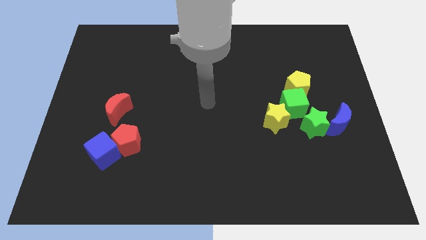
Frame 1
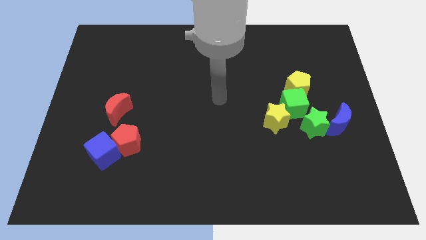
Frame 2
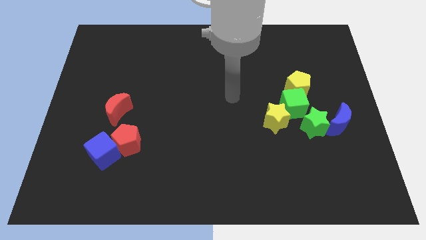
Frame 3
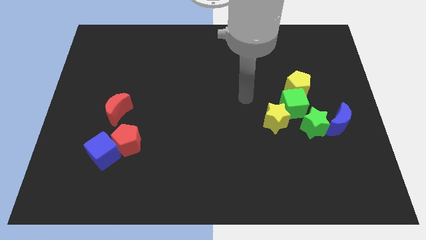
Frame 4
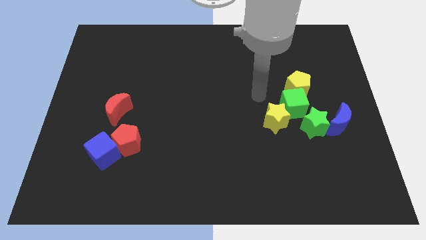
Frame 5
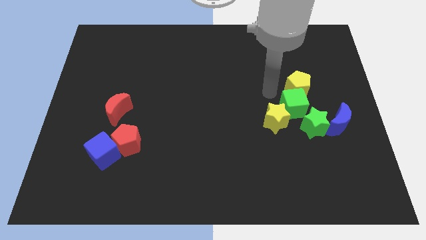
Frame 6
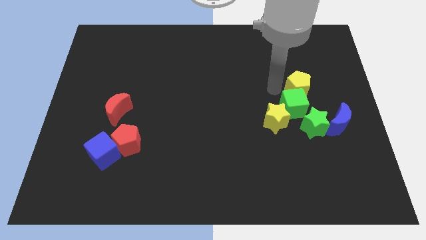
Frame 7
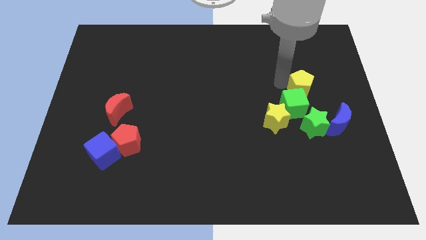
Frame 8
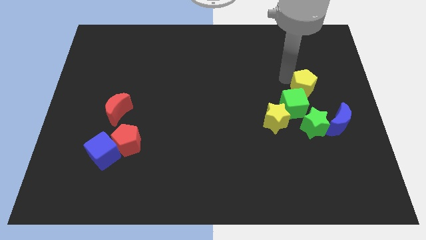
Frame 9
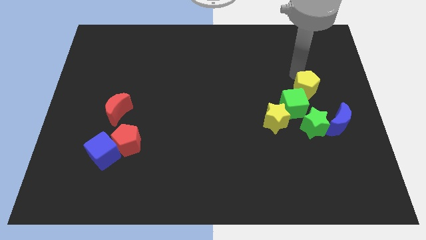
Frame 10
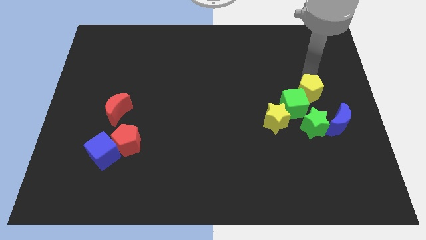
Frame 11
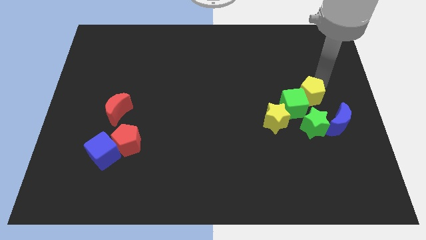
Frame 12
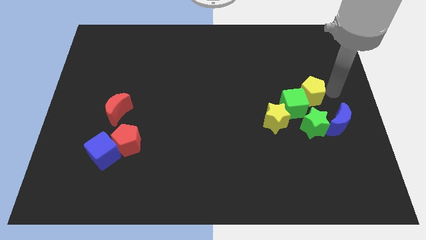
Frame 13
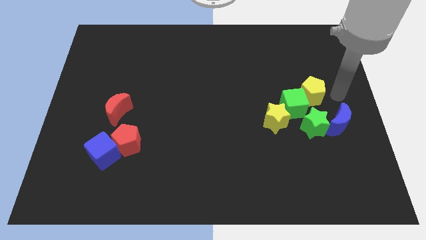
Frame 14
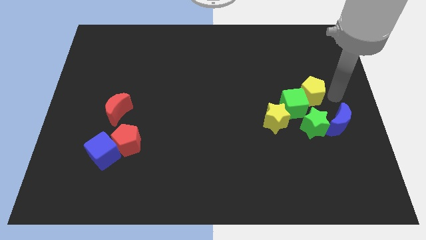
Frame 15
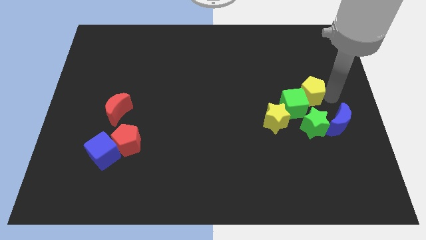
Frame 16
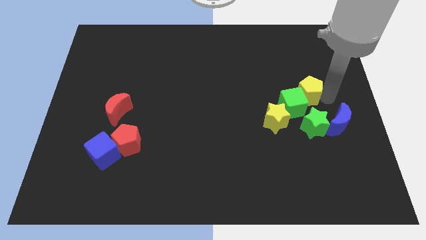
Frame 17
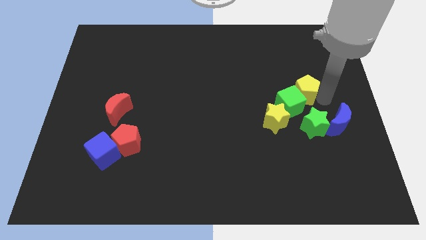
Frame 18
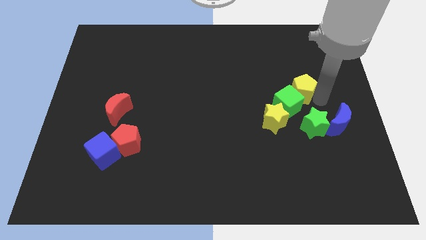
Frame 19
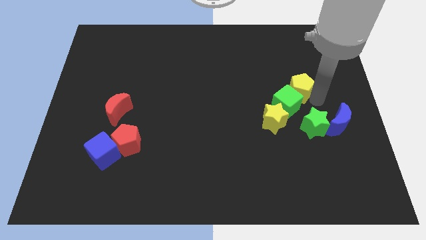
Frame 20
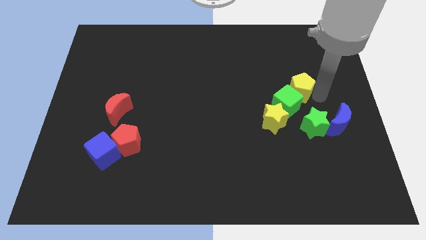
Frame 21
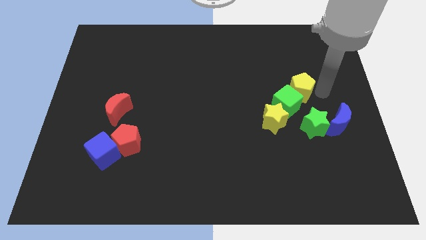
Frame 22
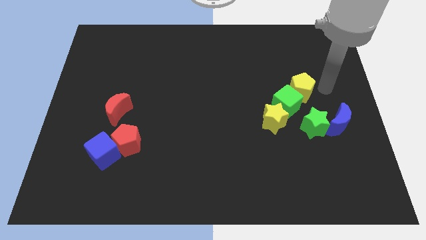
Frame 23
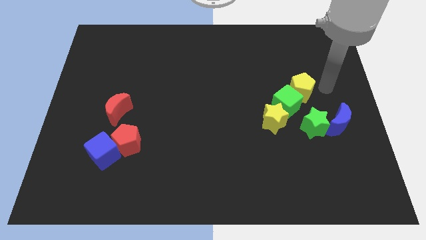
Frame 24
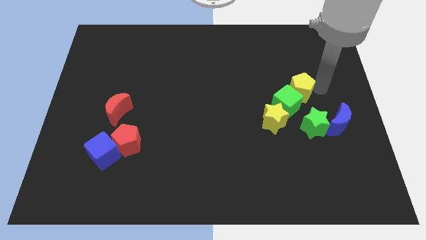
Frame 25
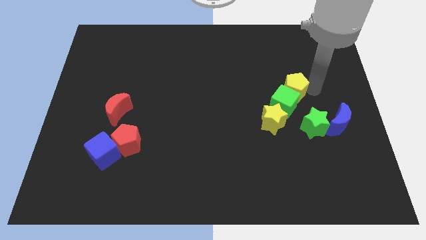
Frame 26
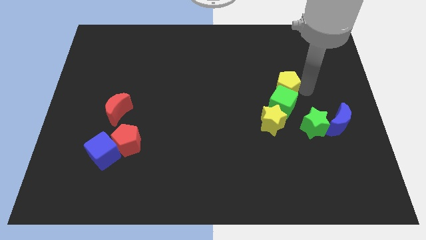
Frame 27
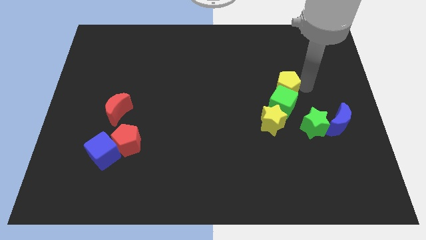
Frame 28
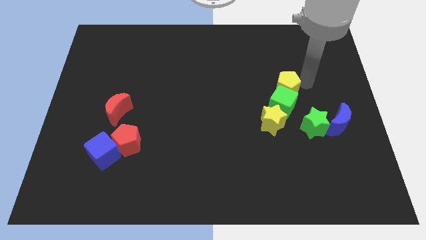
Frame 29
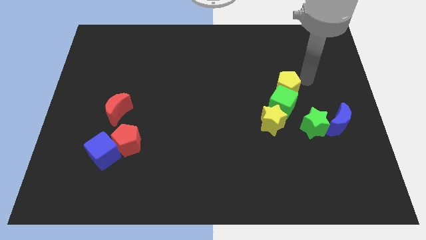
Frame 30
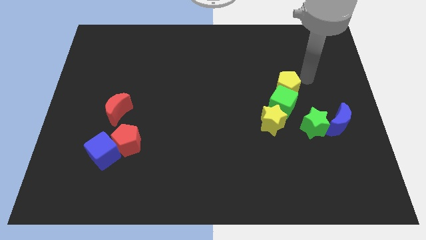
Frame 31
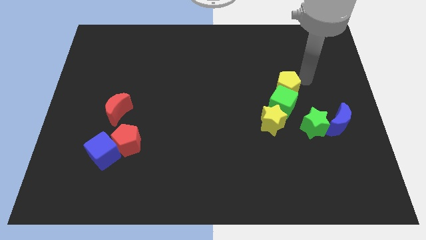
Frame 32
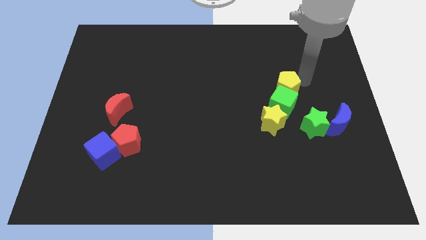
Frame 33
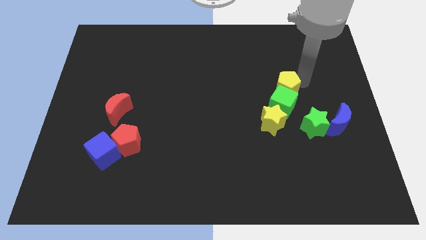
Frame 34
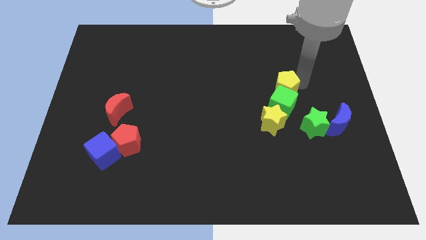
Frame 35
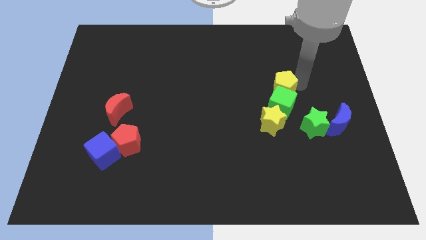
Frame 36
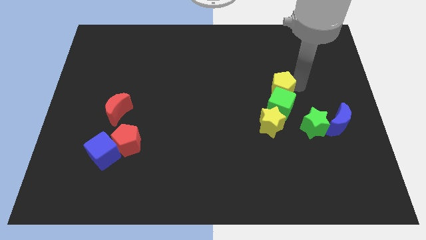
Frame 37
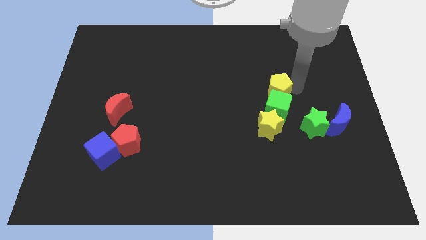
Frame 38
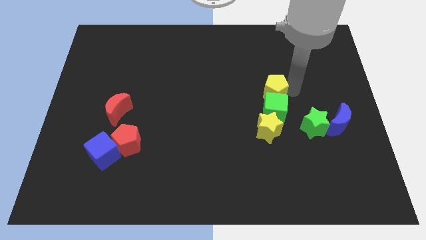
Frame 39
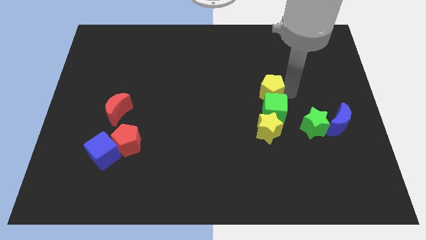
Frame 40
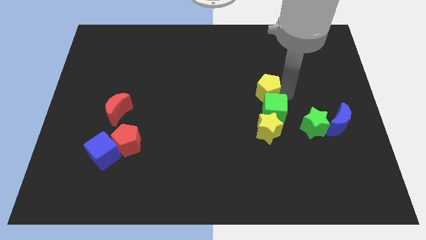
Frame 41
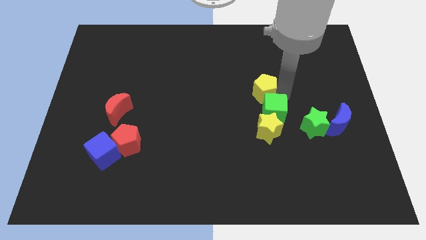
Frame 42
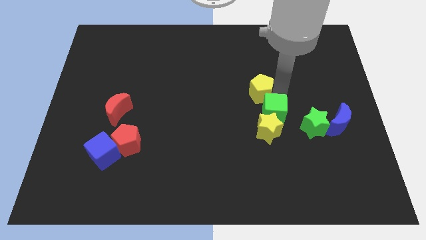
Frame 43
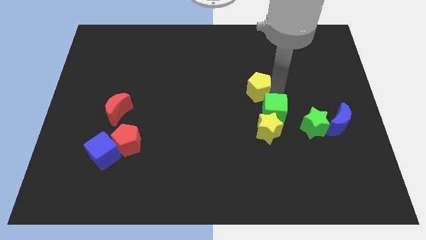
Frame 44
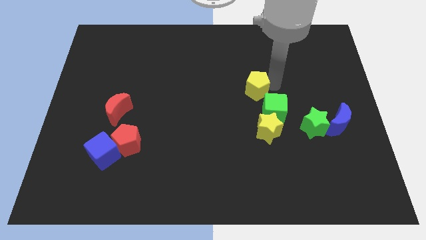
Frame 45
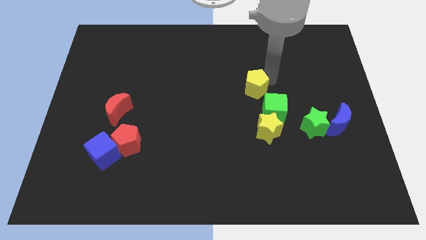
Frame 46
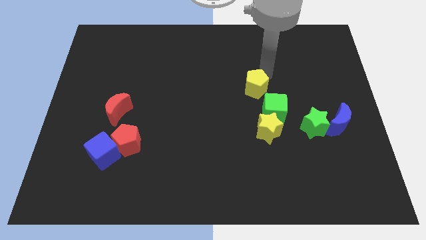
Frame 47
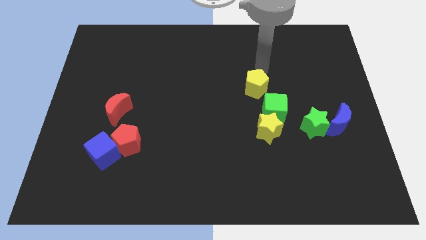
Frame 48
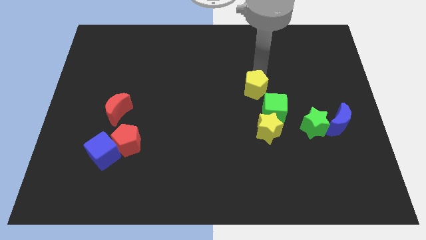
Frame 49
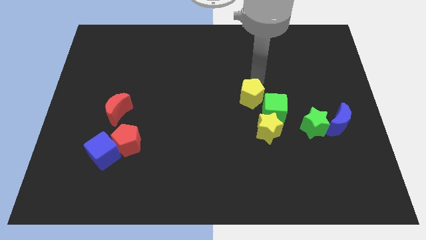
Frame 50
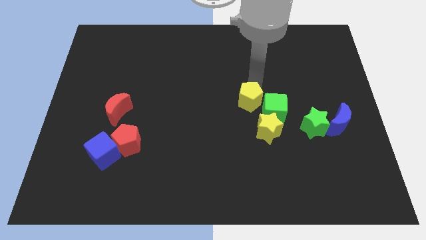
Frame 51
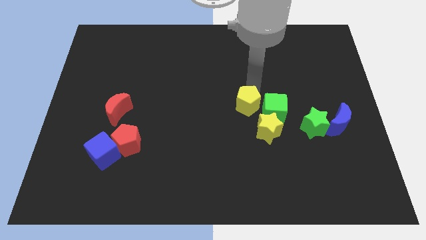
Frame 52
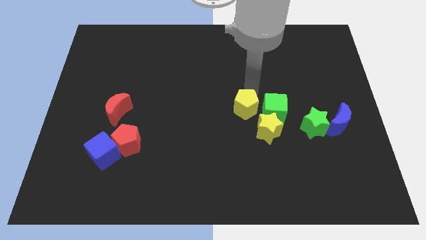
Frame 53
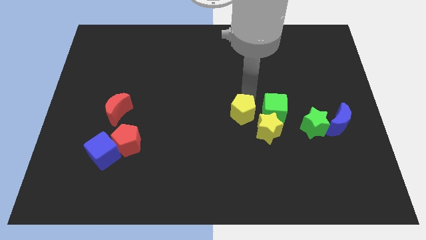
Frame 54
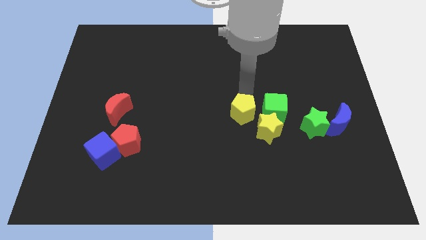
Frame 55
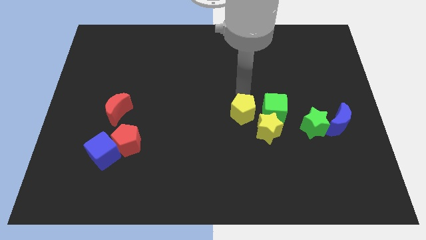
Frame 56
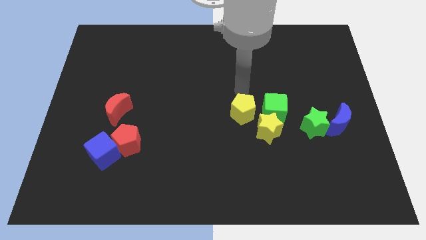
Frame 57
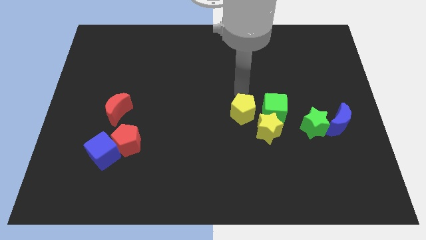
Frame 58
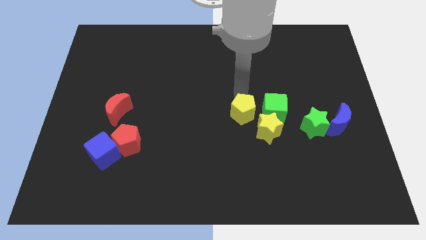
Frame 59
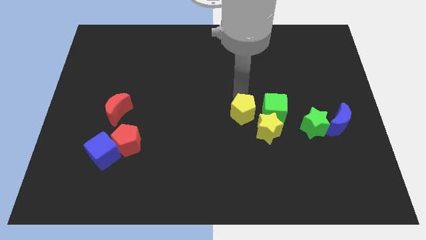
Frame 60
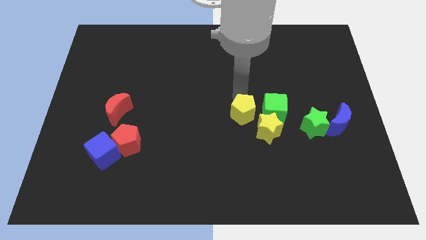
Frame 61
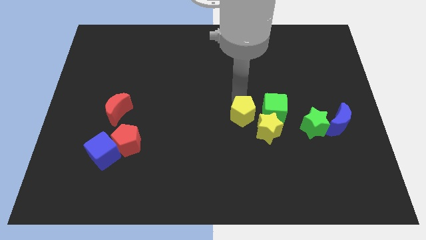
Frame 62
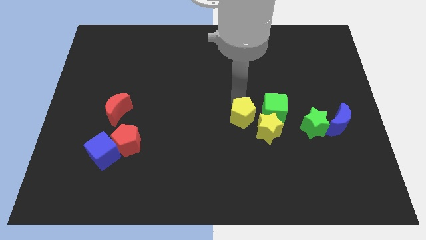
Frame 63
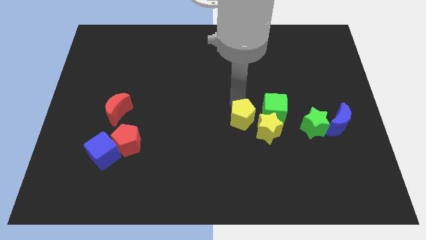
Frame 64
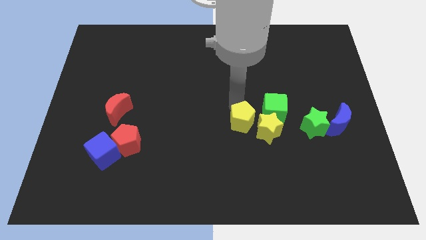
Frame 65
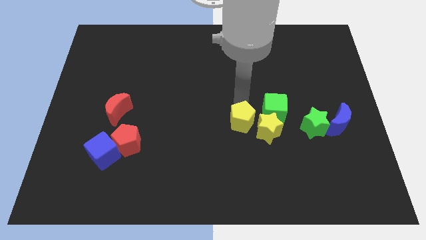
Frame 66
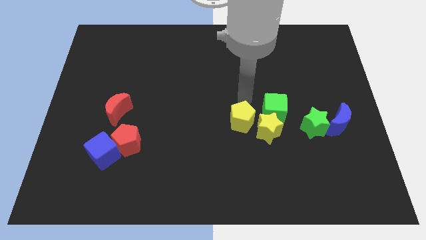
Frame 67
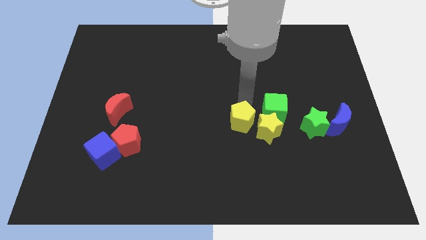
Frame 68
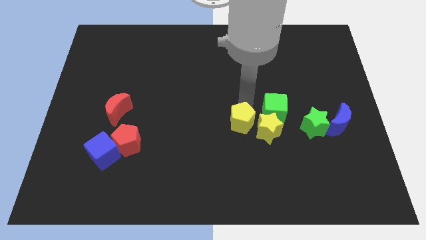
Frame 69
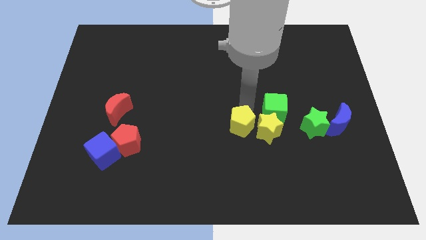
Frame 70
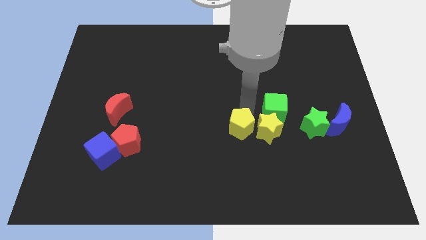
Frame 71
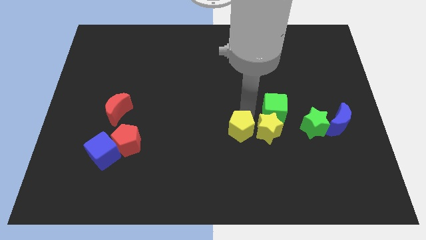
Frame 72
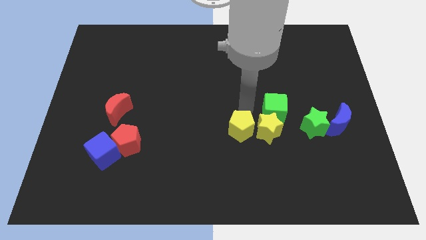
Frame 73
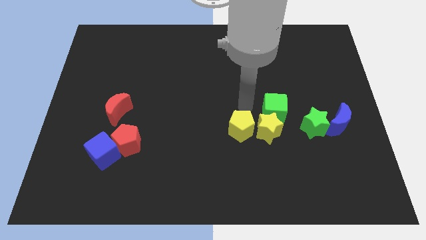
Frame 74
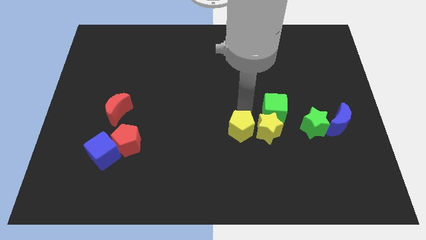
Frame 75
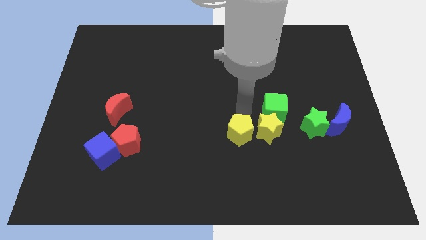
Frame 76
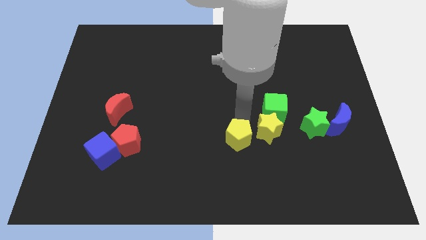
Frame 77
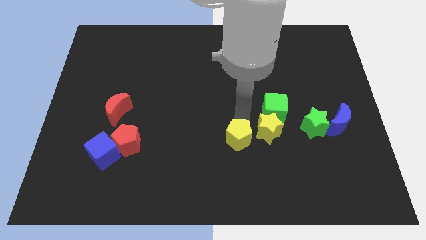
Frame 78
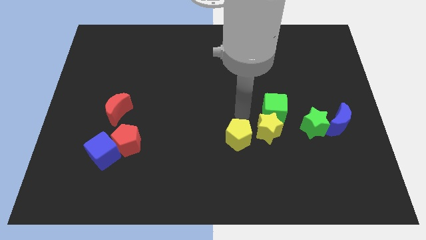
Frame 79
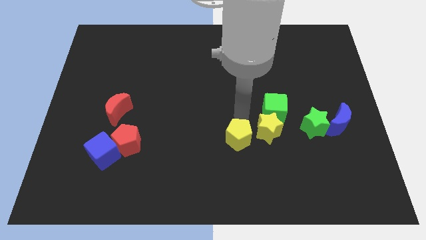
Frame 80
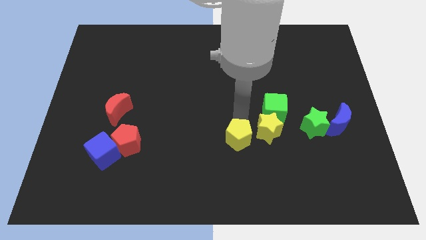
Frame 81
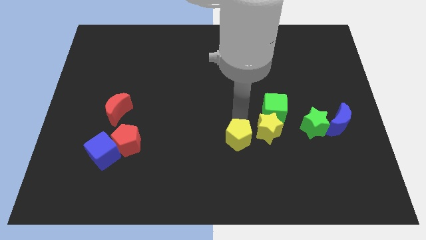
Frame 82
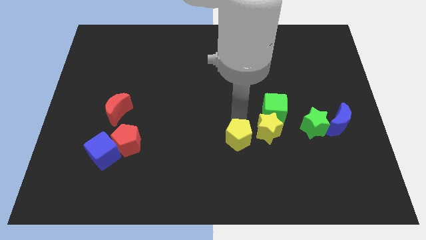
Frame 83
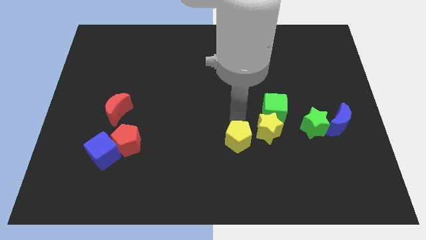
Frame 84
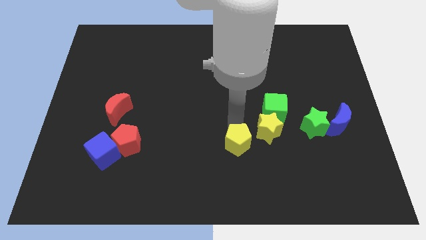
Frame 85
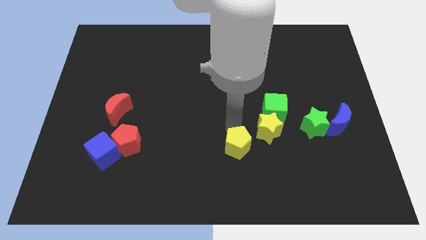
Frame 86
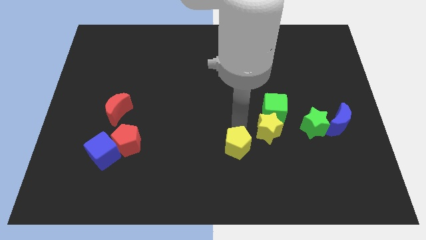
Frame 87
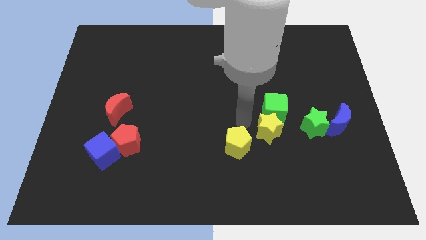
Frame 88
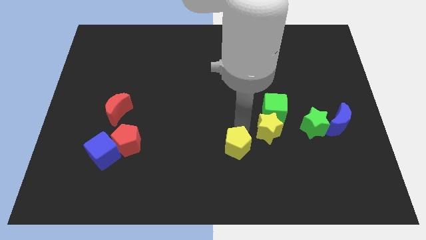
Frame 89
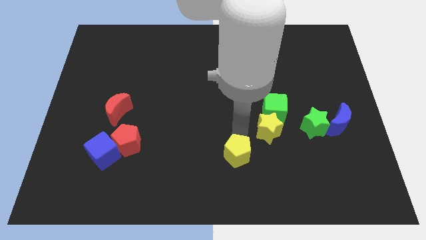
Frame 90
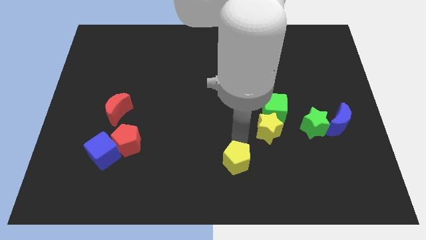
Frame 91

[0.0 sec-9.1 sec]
move the yellow pentagon to the bottom
